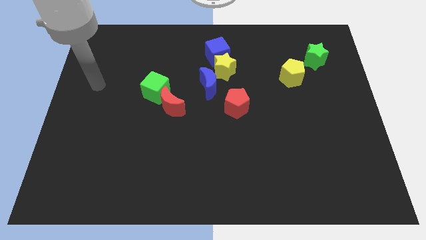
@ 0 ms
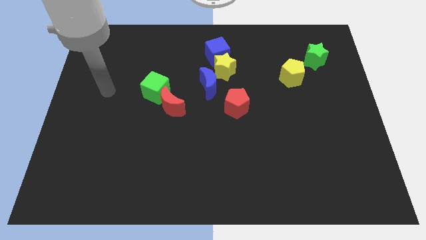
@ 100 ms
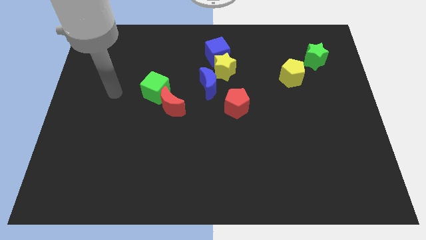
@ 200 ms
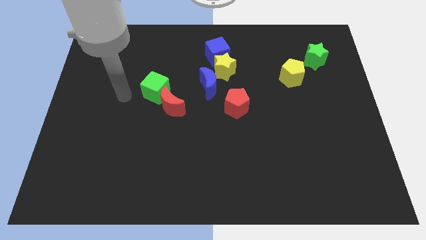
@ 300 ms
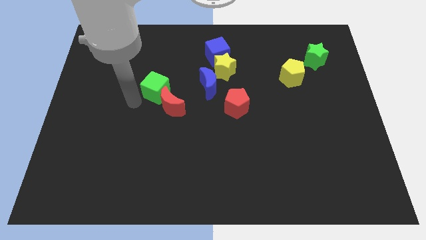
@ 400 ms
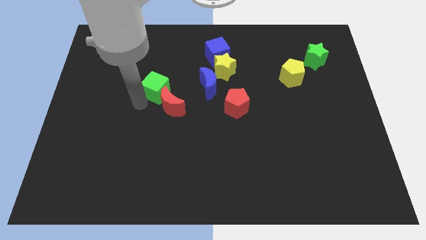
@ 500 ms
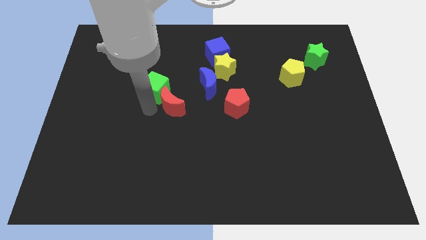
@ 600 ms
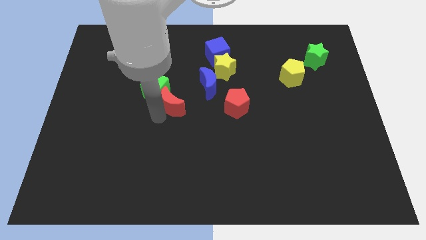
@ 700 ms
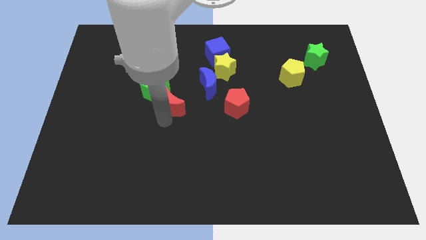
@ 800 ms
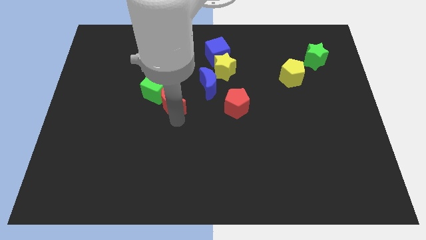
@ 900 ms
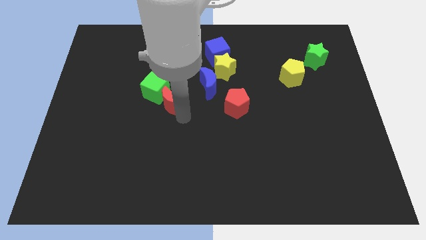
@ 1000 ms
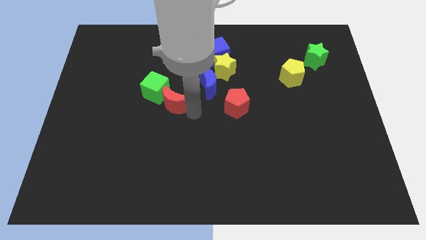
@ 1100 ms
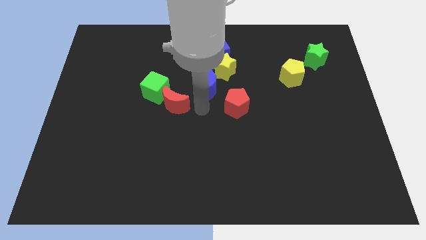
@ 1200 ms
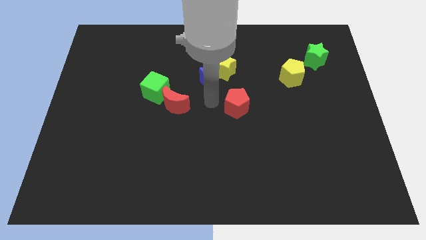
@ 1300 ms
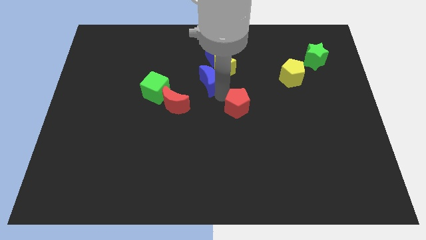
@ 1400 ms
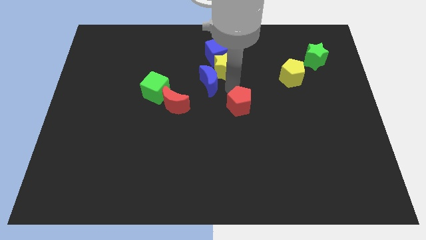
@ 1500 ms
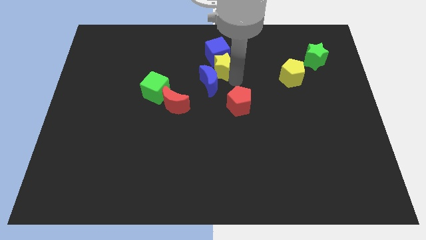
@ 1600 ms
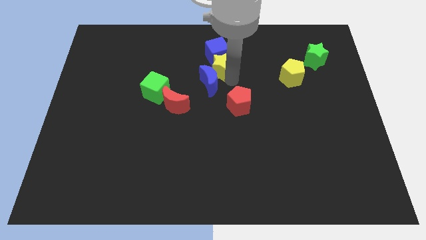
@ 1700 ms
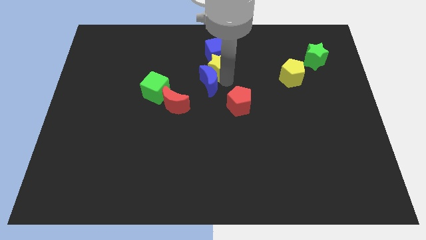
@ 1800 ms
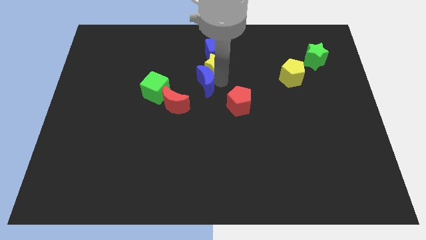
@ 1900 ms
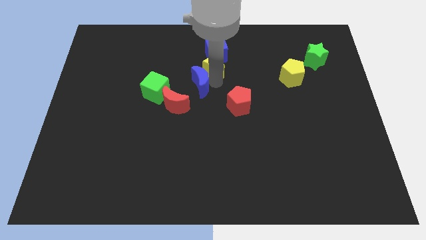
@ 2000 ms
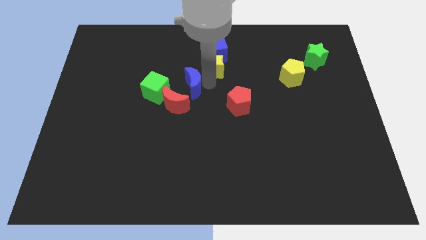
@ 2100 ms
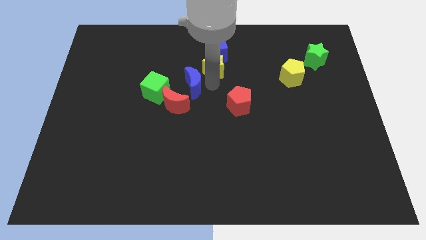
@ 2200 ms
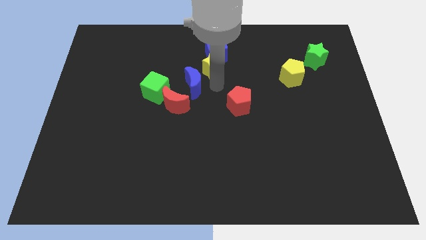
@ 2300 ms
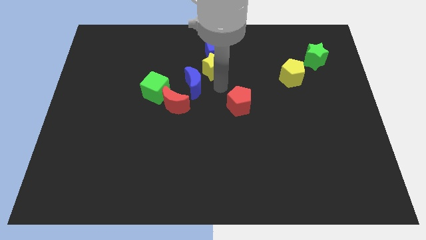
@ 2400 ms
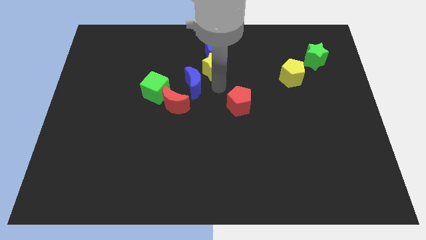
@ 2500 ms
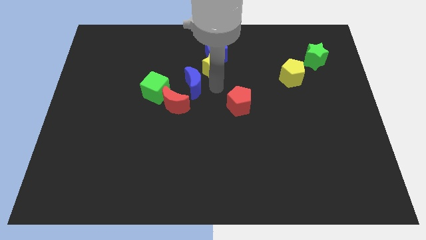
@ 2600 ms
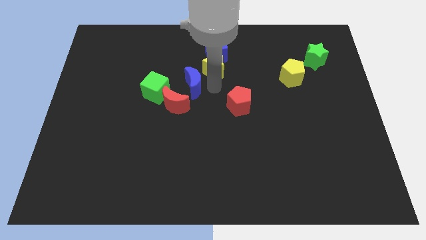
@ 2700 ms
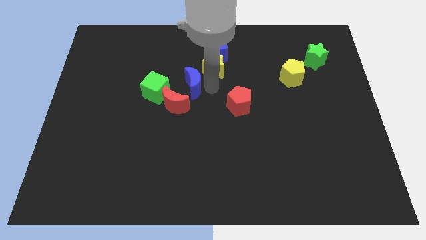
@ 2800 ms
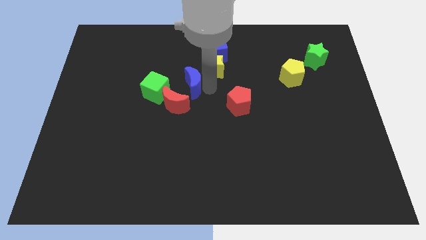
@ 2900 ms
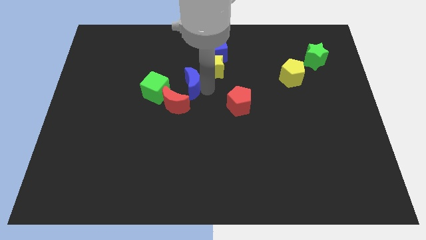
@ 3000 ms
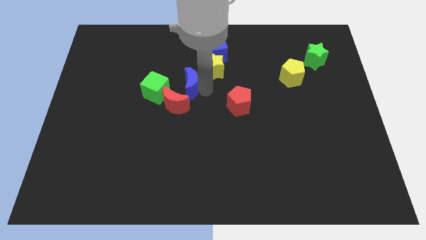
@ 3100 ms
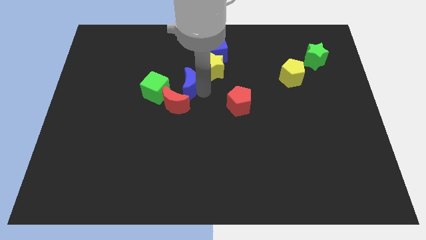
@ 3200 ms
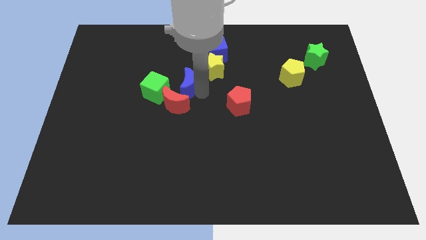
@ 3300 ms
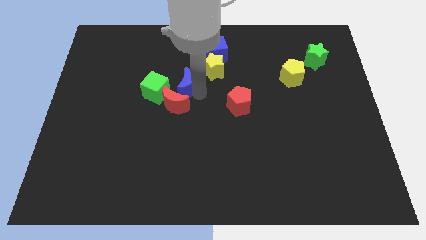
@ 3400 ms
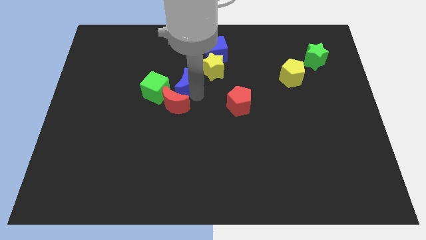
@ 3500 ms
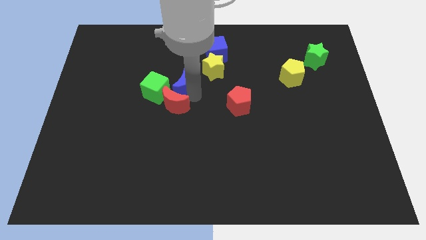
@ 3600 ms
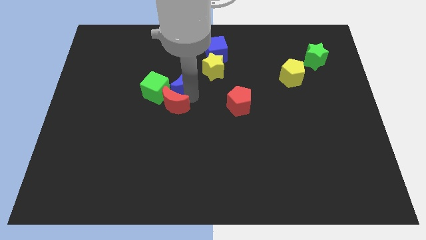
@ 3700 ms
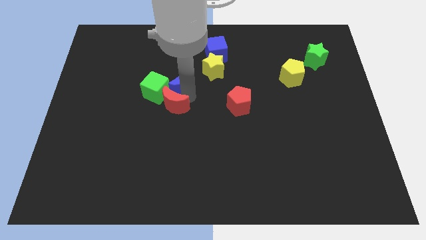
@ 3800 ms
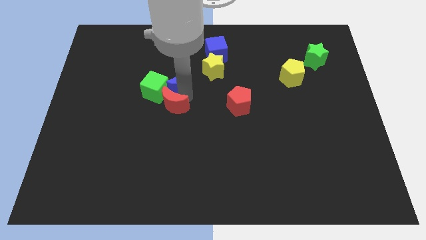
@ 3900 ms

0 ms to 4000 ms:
slide the blue moon slightly left

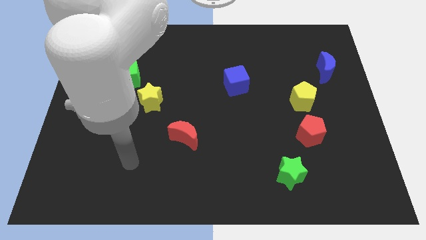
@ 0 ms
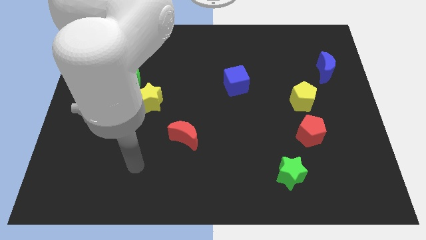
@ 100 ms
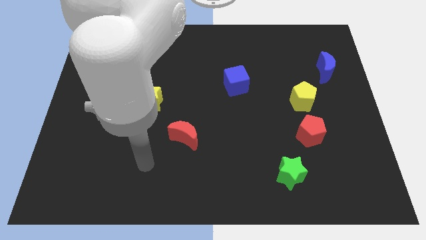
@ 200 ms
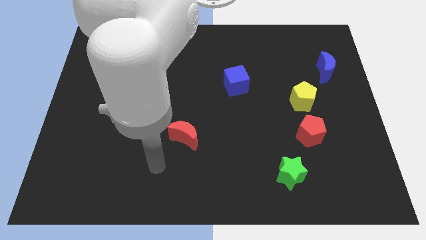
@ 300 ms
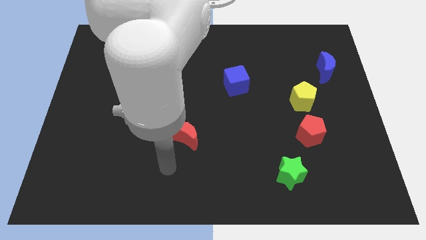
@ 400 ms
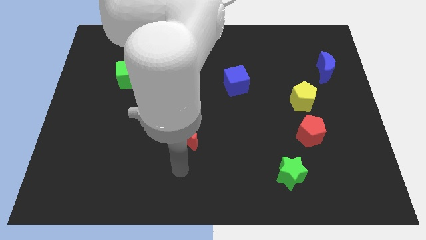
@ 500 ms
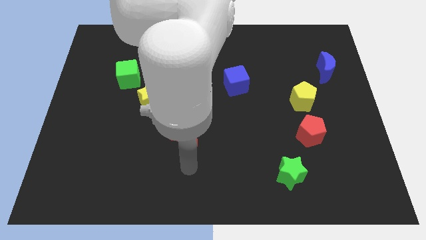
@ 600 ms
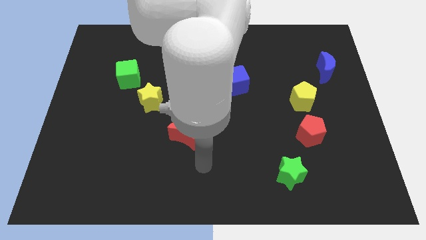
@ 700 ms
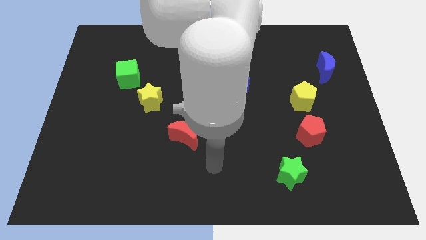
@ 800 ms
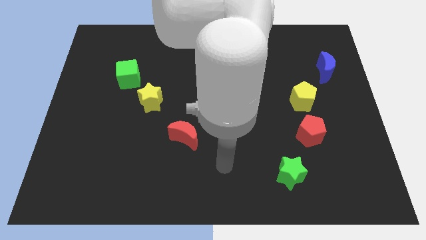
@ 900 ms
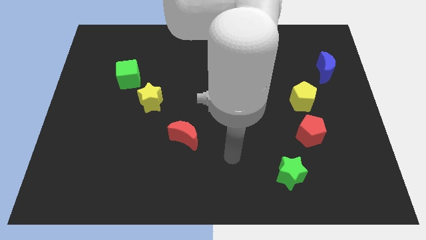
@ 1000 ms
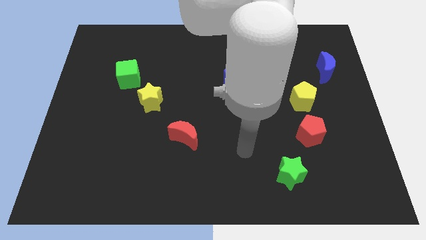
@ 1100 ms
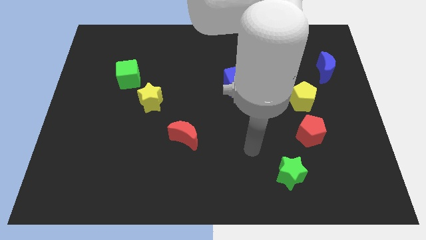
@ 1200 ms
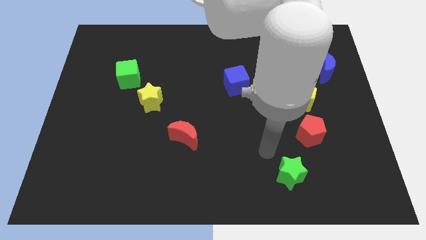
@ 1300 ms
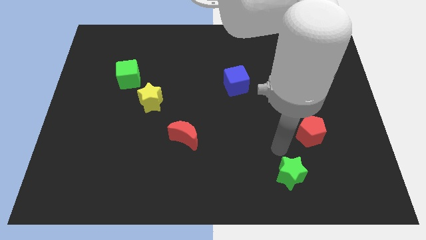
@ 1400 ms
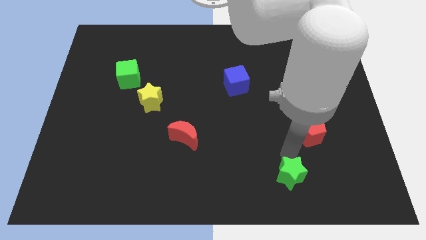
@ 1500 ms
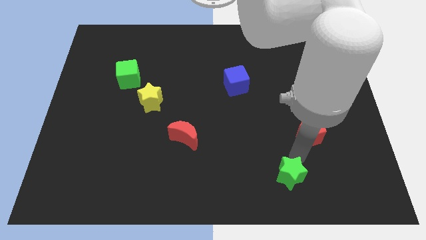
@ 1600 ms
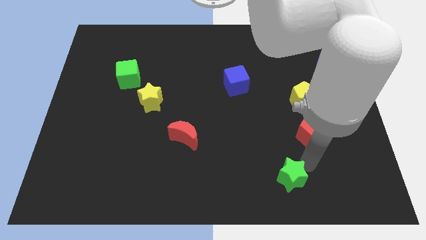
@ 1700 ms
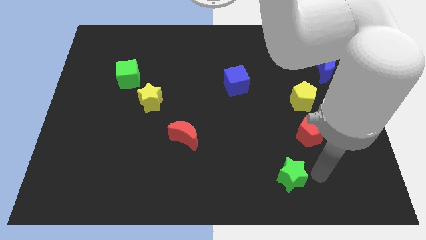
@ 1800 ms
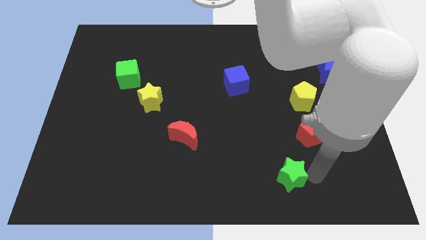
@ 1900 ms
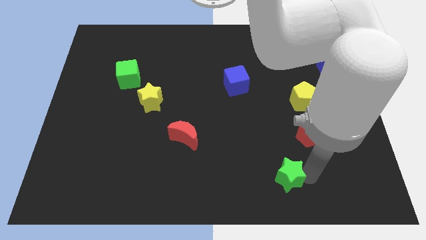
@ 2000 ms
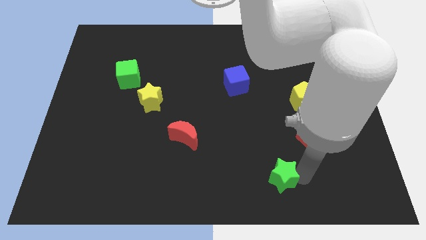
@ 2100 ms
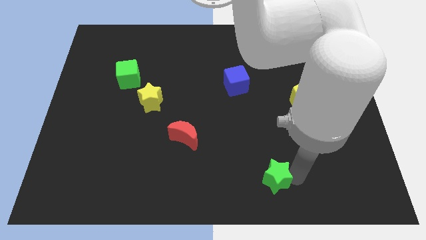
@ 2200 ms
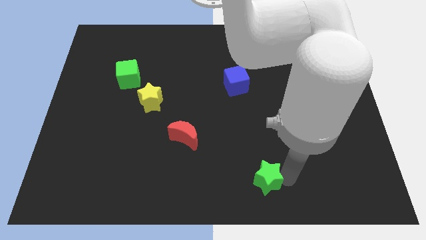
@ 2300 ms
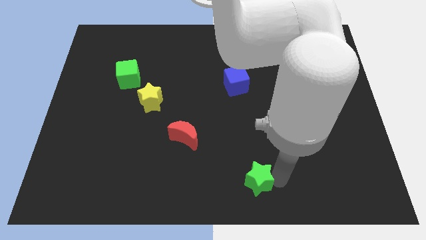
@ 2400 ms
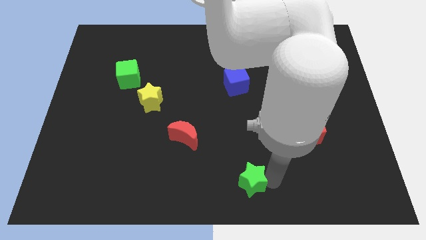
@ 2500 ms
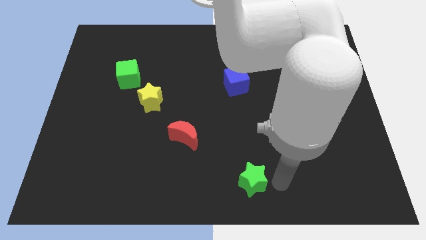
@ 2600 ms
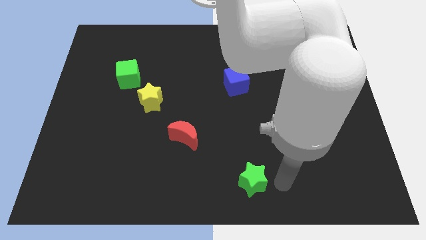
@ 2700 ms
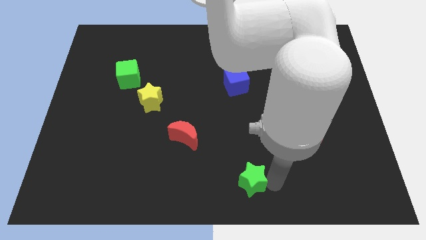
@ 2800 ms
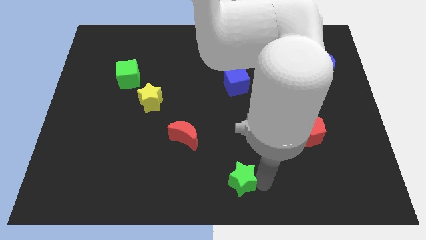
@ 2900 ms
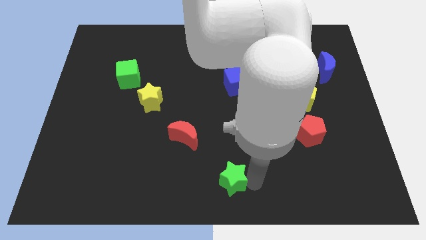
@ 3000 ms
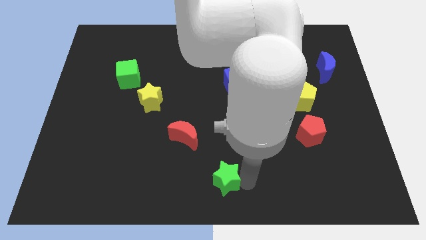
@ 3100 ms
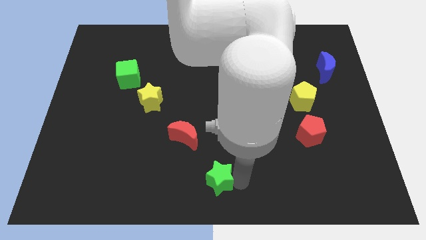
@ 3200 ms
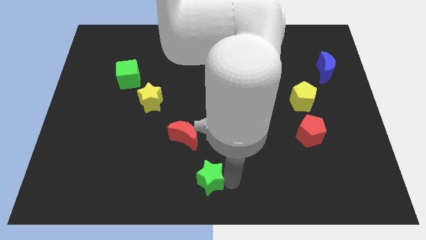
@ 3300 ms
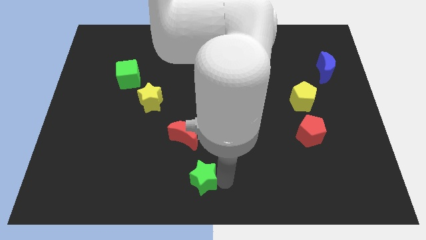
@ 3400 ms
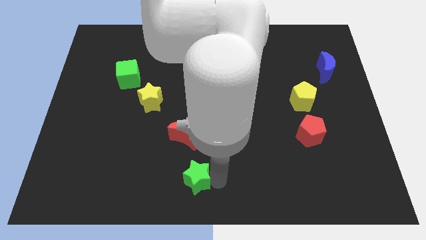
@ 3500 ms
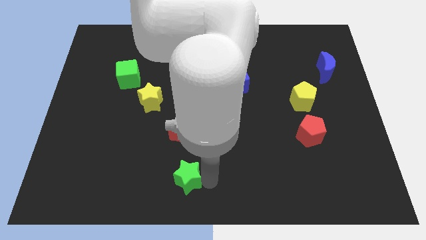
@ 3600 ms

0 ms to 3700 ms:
push the green star left

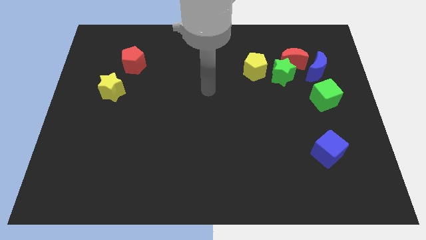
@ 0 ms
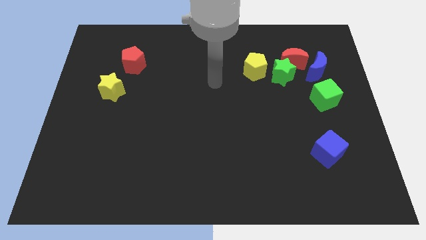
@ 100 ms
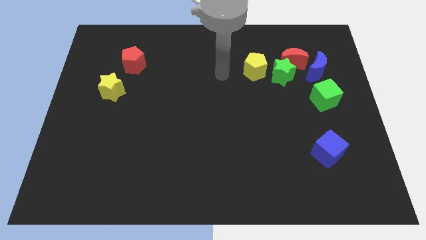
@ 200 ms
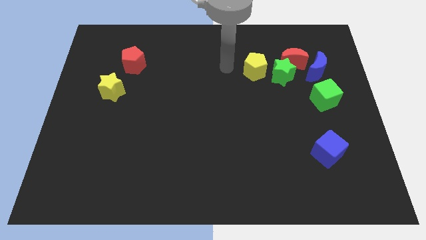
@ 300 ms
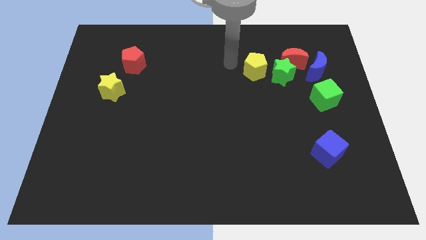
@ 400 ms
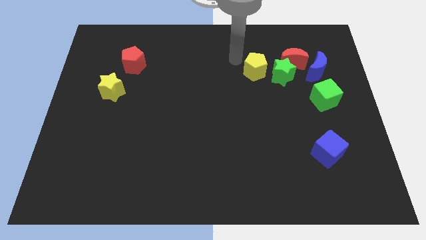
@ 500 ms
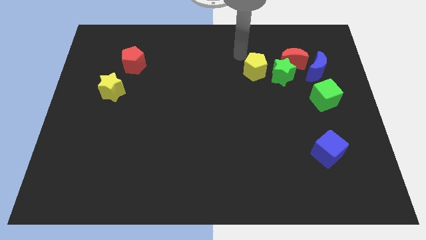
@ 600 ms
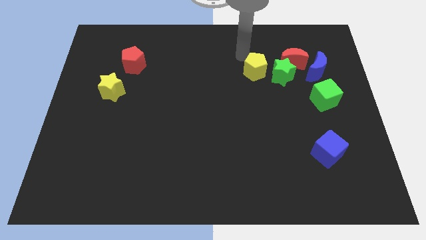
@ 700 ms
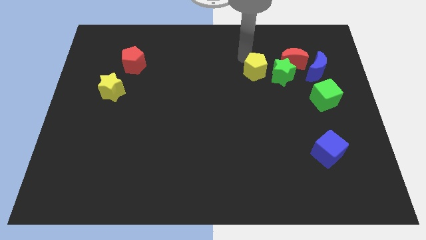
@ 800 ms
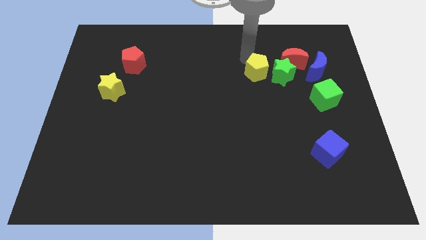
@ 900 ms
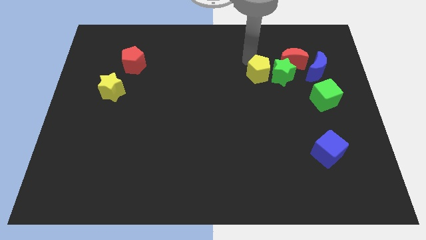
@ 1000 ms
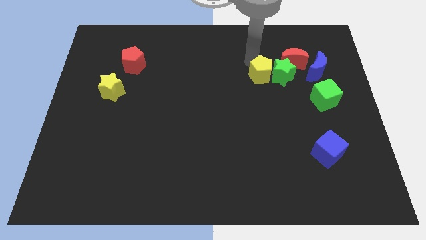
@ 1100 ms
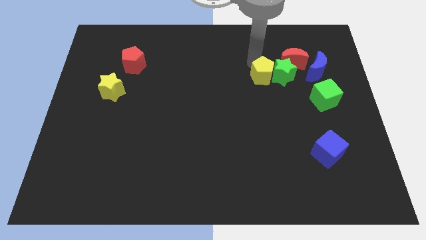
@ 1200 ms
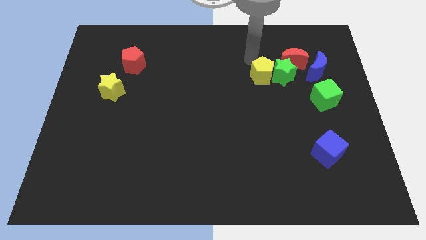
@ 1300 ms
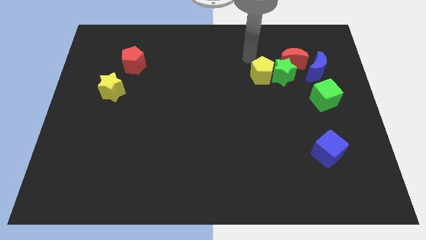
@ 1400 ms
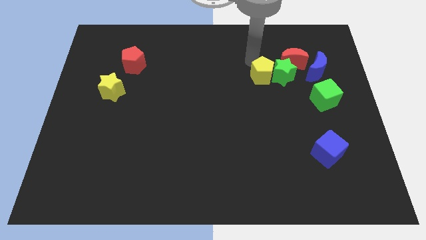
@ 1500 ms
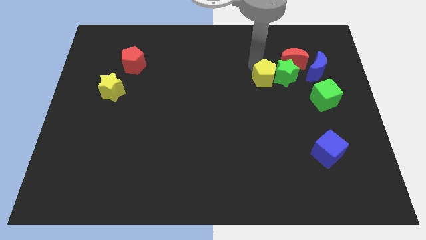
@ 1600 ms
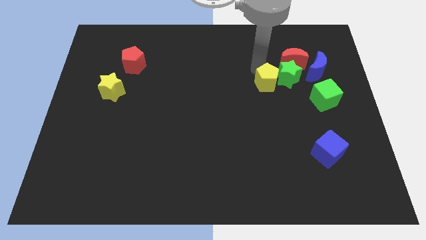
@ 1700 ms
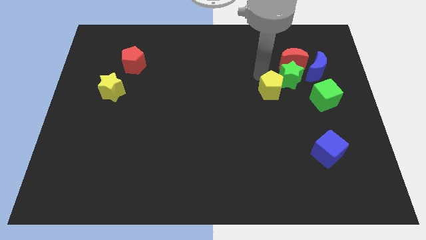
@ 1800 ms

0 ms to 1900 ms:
slightly push the yellow pentagon diagonally down and to the right
